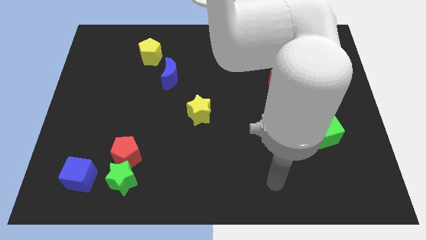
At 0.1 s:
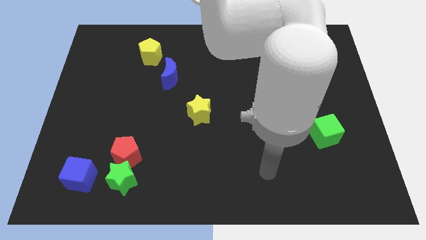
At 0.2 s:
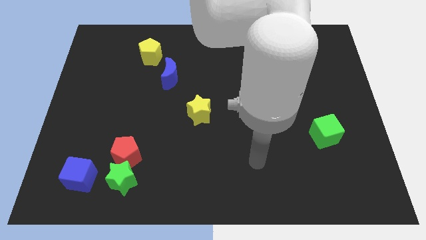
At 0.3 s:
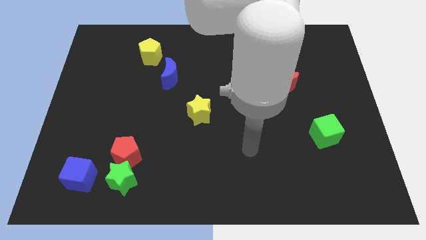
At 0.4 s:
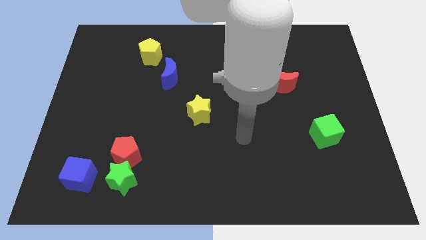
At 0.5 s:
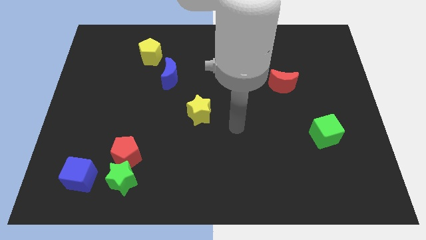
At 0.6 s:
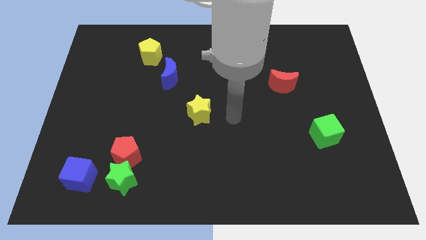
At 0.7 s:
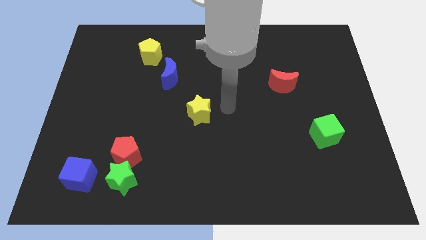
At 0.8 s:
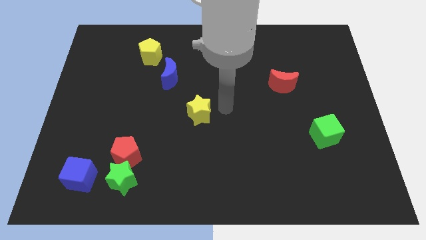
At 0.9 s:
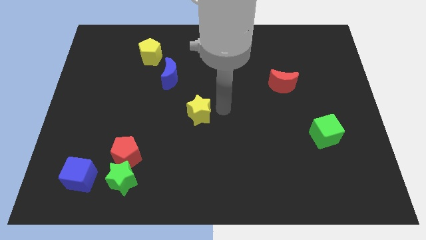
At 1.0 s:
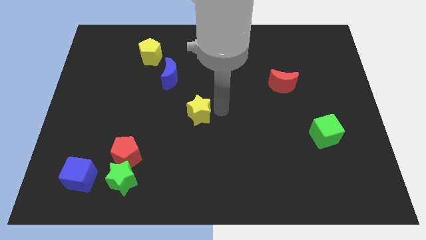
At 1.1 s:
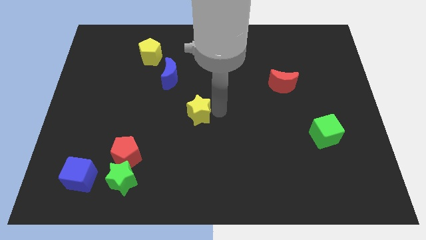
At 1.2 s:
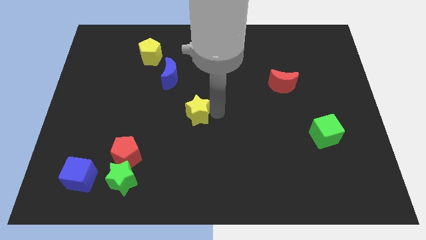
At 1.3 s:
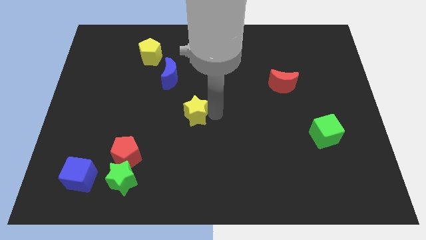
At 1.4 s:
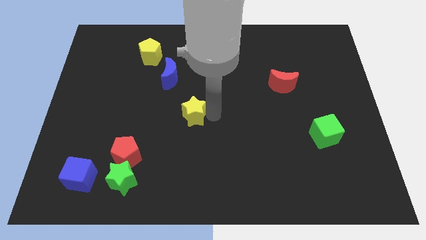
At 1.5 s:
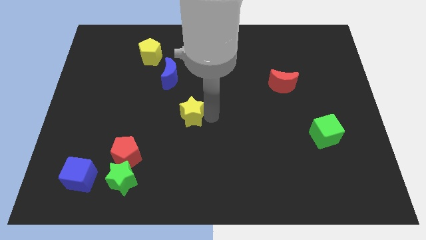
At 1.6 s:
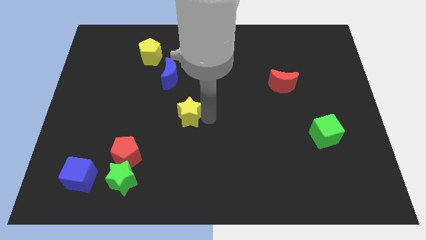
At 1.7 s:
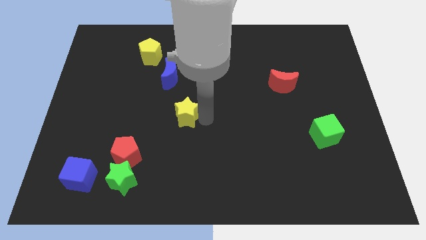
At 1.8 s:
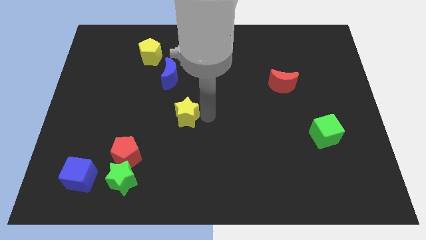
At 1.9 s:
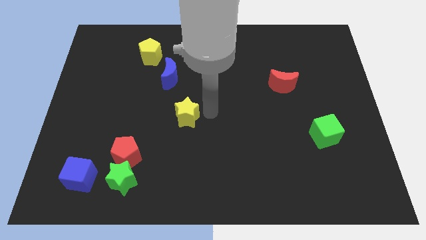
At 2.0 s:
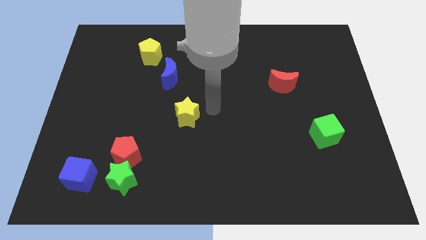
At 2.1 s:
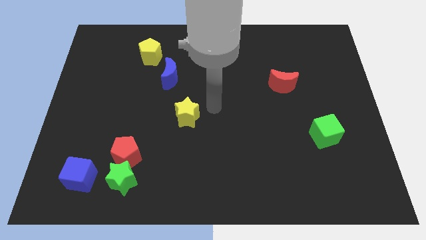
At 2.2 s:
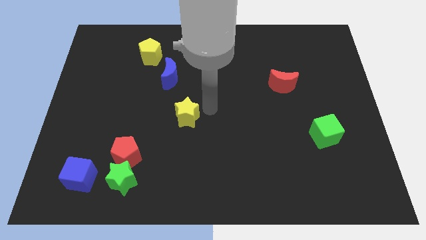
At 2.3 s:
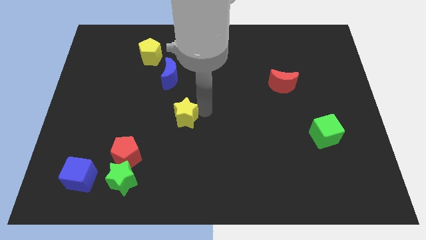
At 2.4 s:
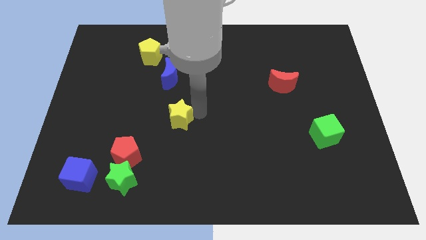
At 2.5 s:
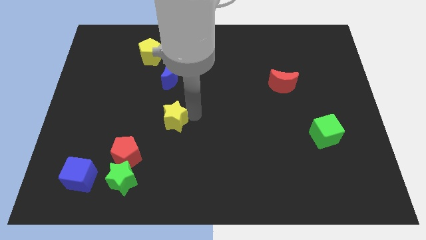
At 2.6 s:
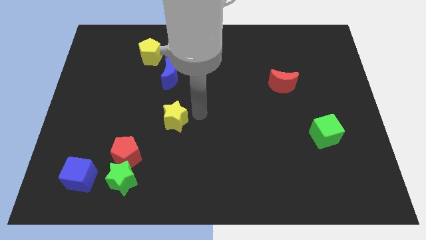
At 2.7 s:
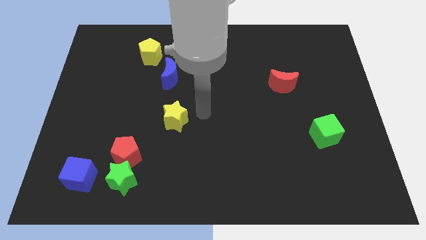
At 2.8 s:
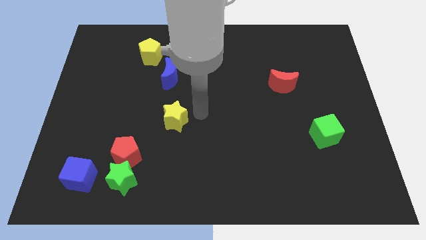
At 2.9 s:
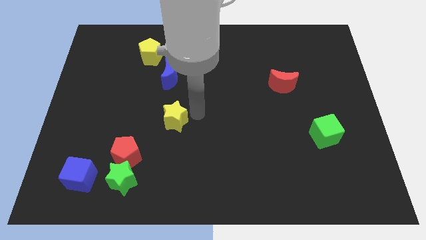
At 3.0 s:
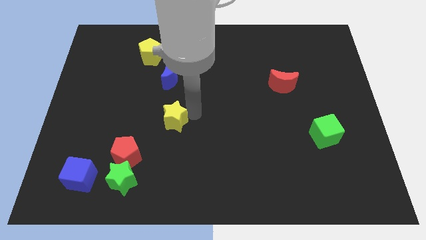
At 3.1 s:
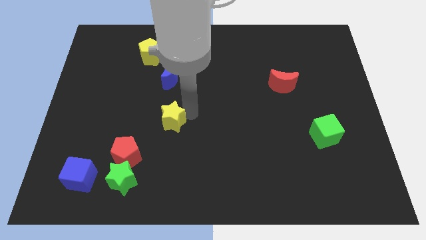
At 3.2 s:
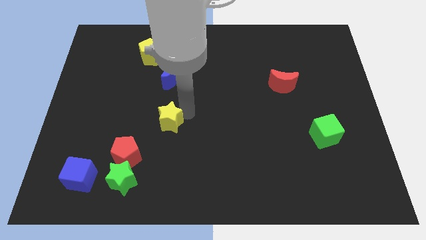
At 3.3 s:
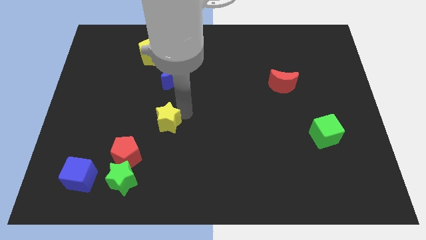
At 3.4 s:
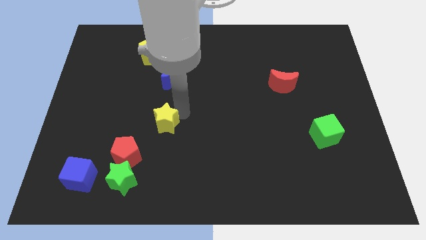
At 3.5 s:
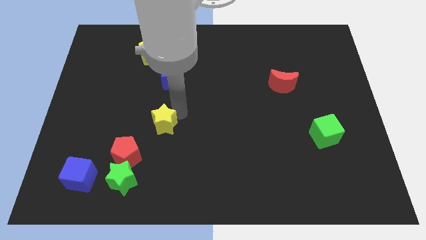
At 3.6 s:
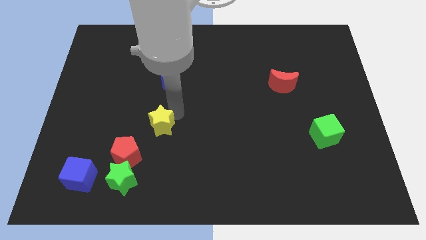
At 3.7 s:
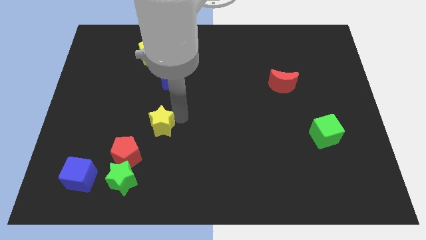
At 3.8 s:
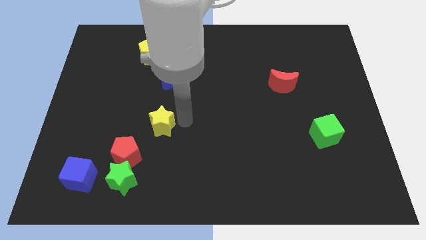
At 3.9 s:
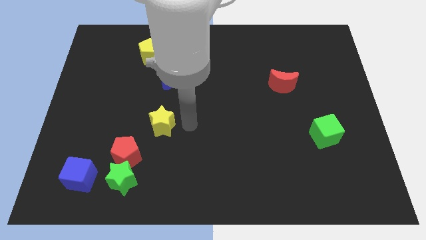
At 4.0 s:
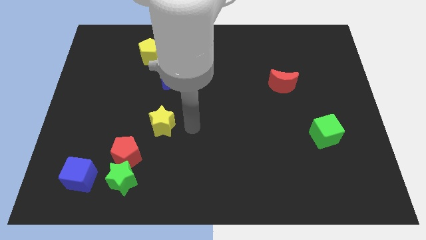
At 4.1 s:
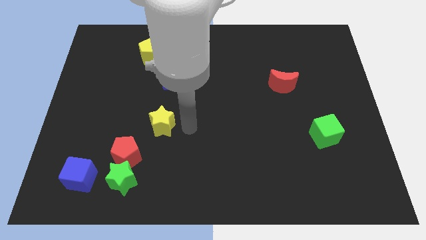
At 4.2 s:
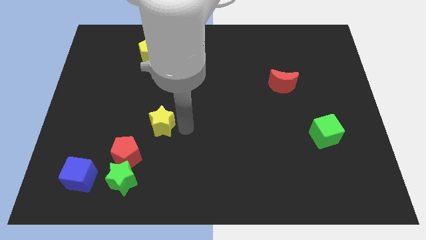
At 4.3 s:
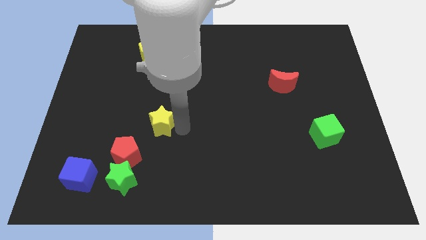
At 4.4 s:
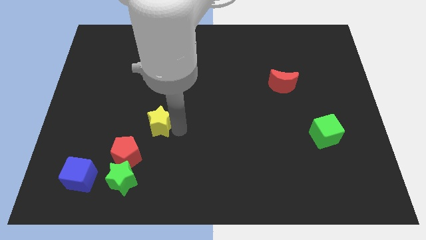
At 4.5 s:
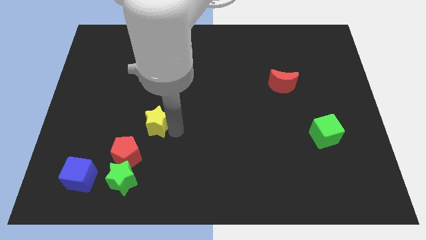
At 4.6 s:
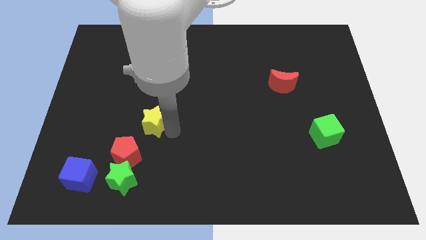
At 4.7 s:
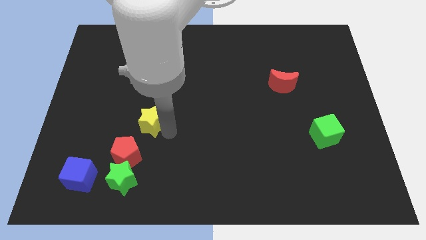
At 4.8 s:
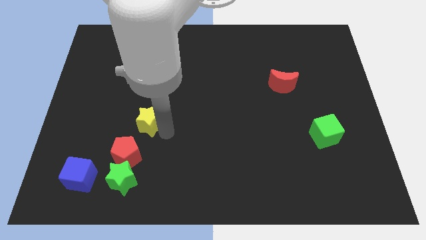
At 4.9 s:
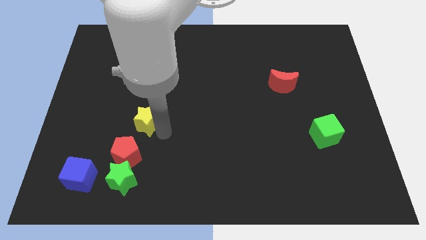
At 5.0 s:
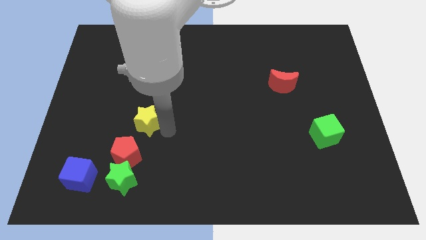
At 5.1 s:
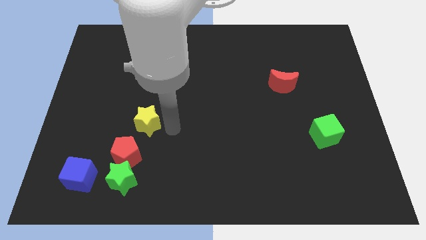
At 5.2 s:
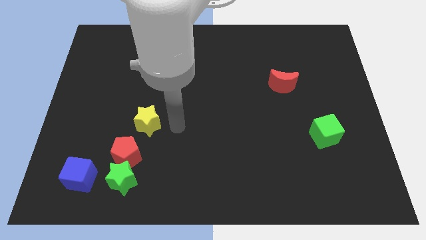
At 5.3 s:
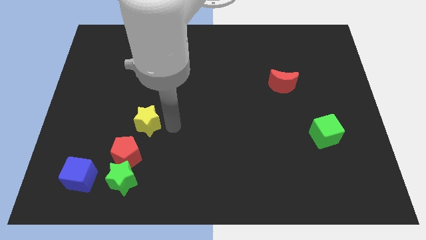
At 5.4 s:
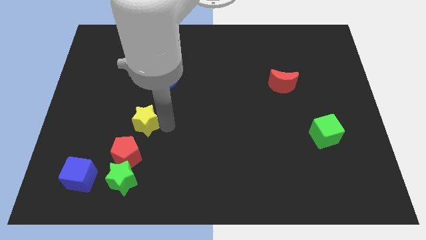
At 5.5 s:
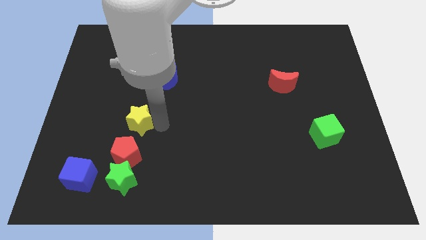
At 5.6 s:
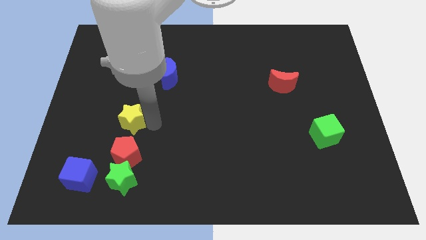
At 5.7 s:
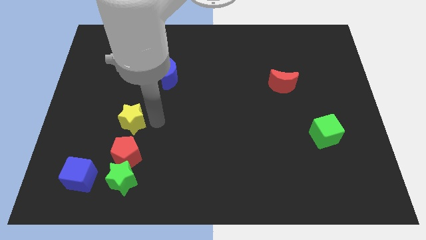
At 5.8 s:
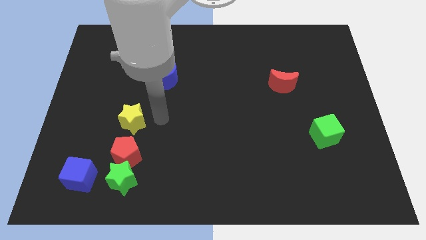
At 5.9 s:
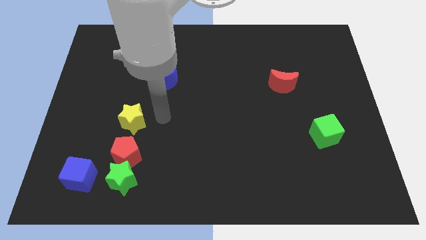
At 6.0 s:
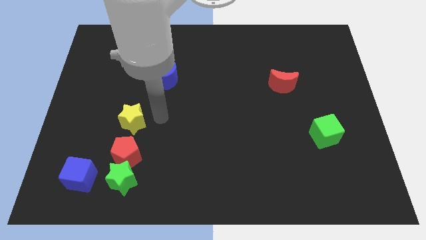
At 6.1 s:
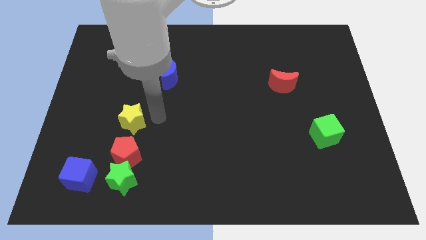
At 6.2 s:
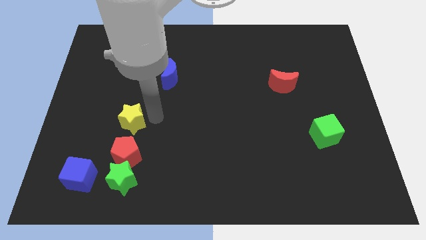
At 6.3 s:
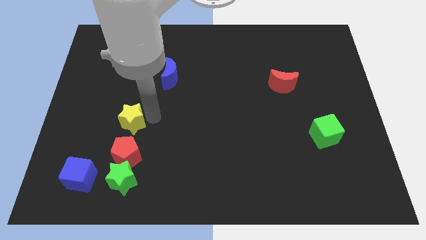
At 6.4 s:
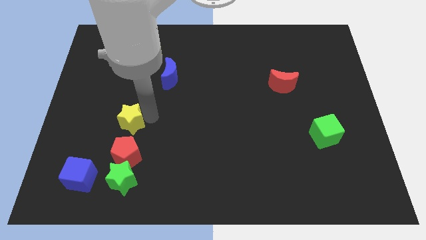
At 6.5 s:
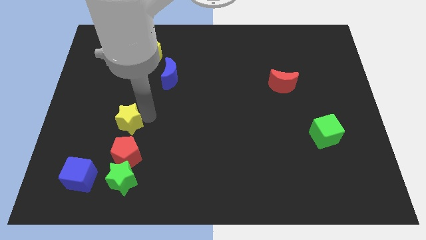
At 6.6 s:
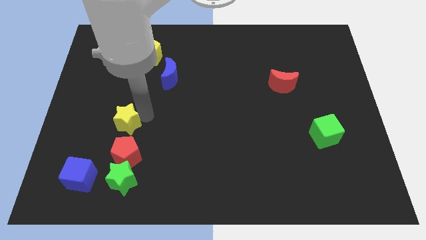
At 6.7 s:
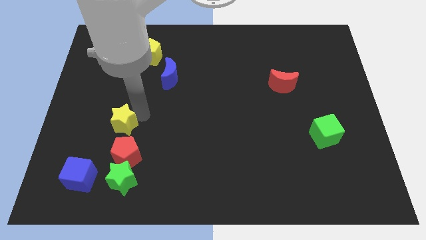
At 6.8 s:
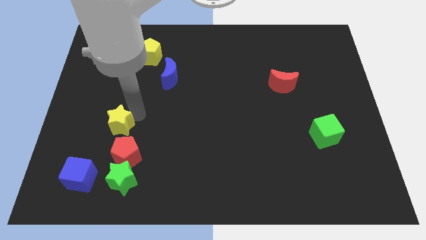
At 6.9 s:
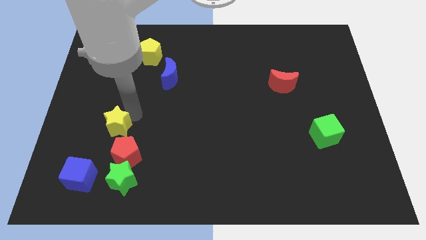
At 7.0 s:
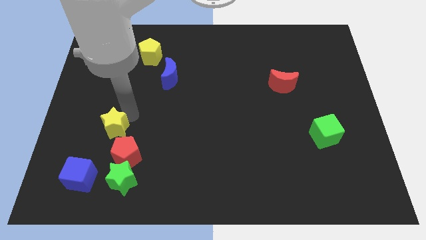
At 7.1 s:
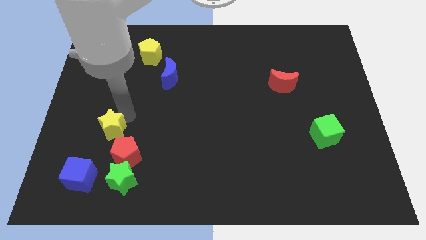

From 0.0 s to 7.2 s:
put the yellow star above the blue cube

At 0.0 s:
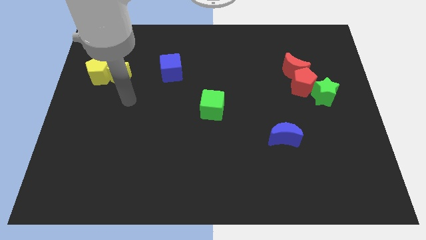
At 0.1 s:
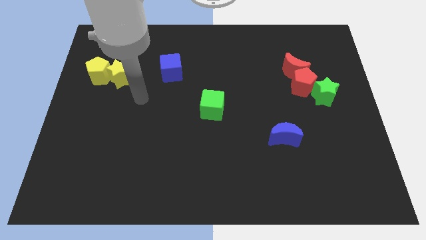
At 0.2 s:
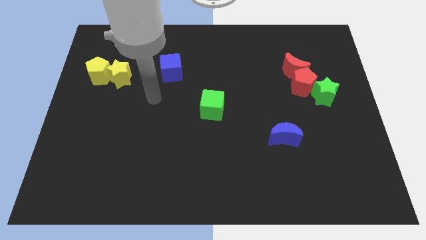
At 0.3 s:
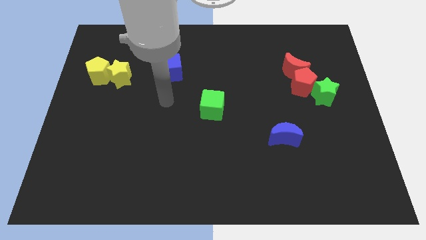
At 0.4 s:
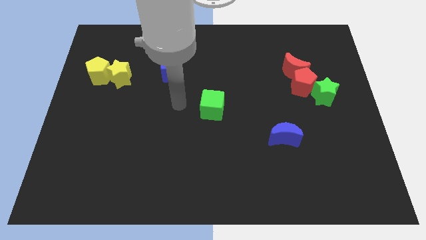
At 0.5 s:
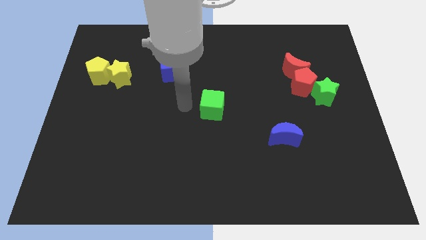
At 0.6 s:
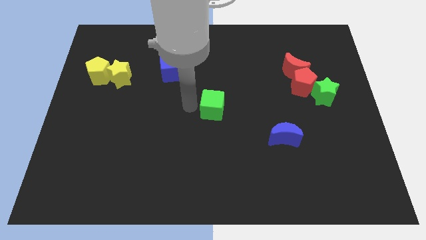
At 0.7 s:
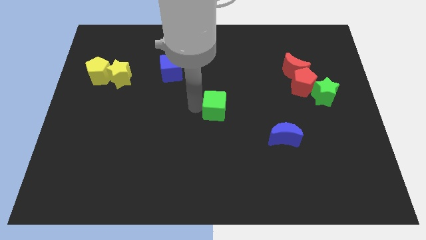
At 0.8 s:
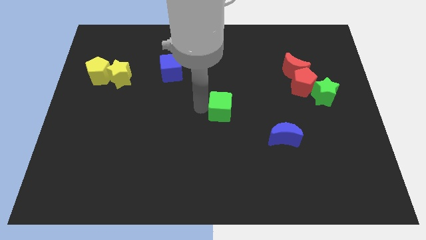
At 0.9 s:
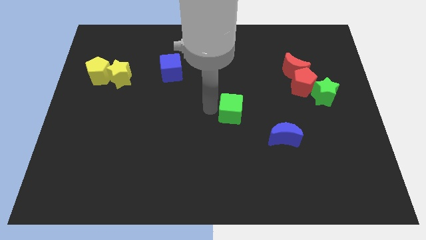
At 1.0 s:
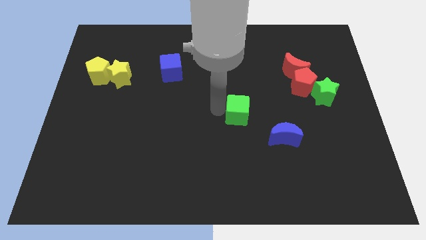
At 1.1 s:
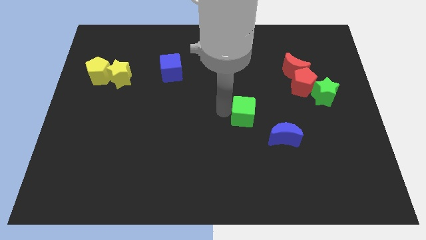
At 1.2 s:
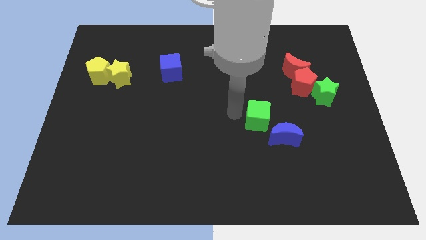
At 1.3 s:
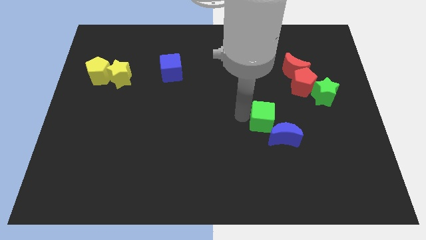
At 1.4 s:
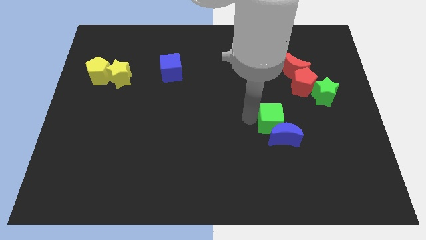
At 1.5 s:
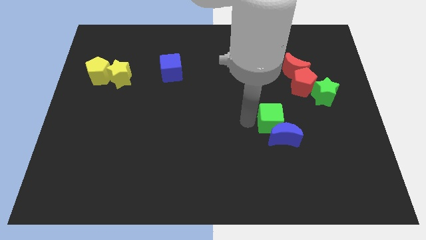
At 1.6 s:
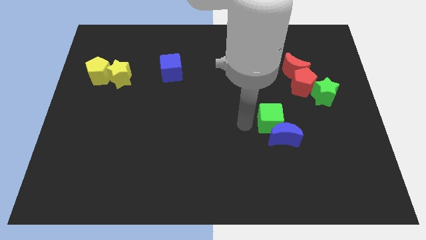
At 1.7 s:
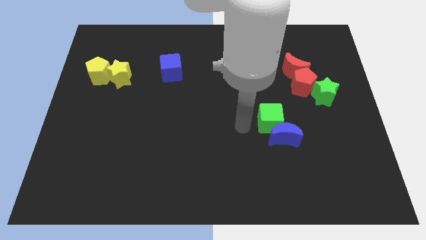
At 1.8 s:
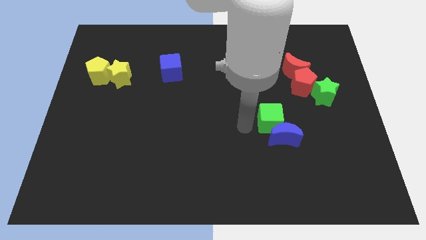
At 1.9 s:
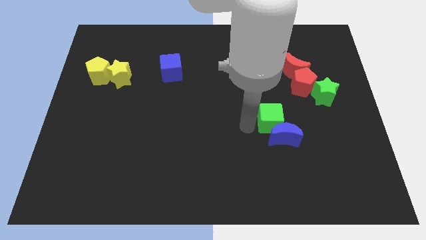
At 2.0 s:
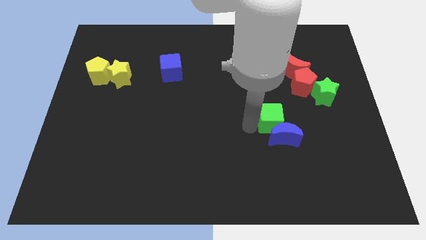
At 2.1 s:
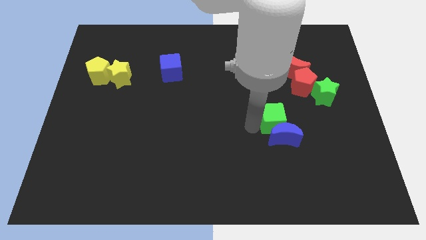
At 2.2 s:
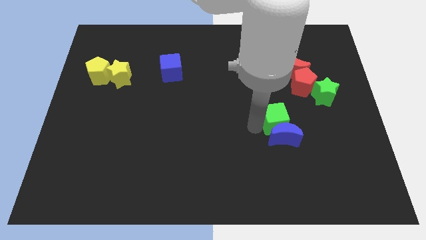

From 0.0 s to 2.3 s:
move the green cube to the top right side of the blue moon
